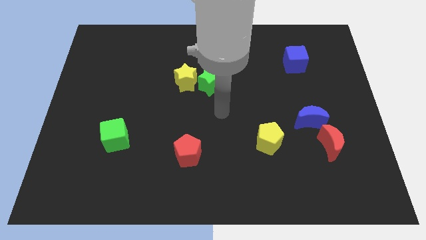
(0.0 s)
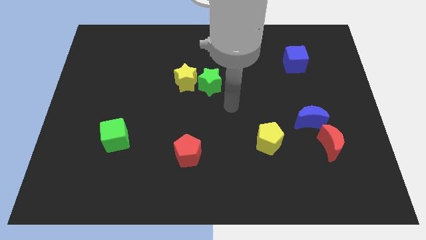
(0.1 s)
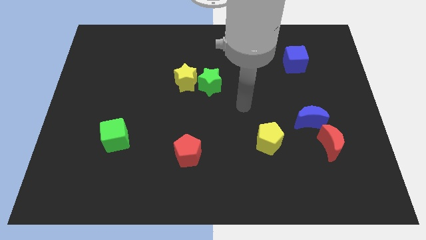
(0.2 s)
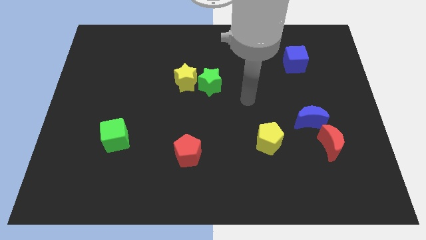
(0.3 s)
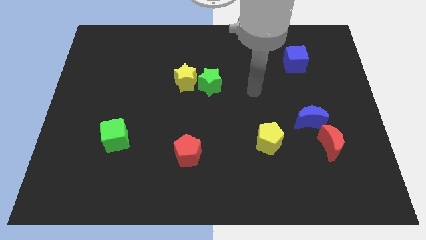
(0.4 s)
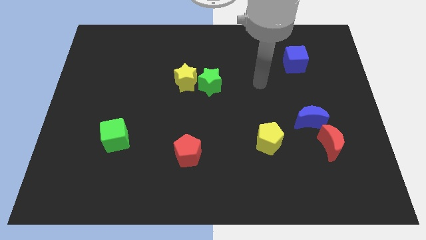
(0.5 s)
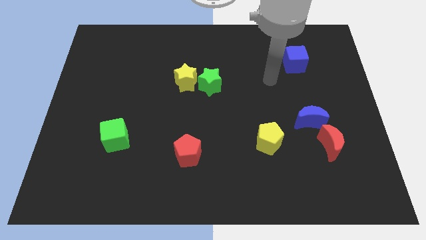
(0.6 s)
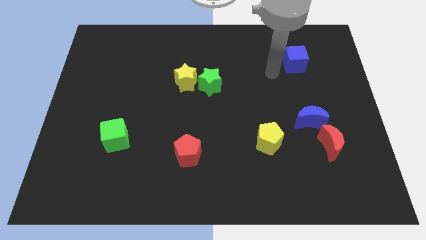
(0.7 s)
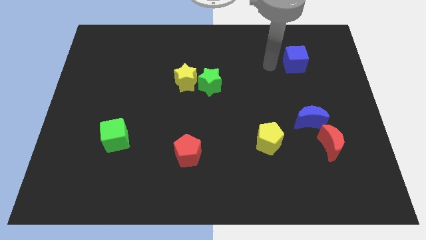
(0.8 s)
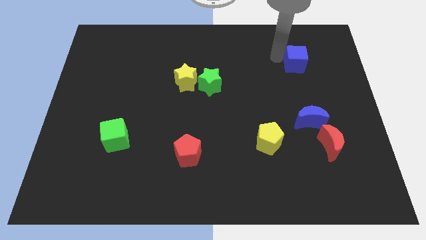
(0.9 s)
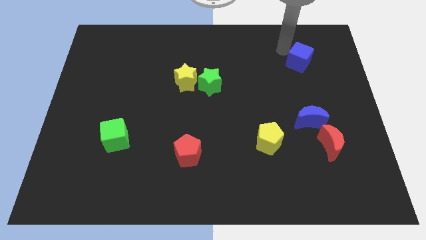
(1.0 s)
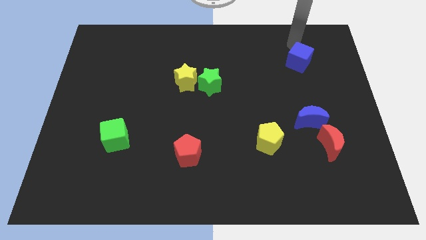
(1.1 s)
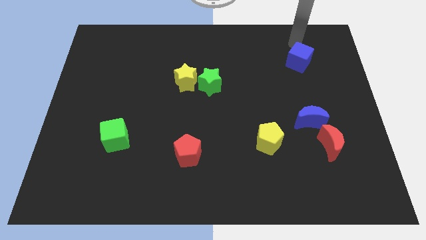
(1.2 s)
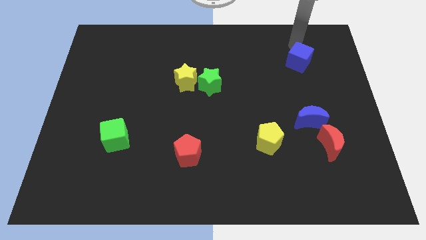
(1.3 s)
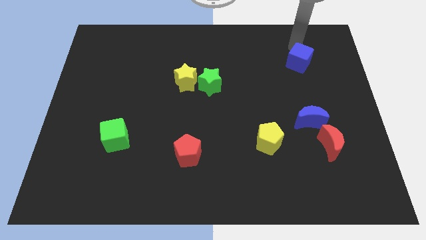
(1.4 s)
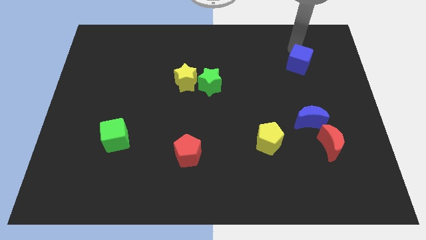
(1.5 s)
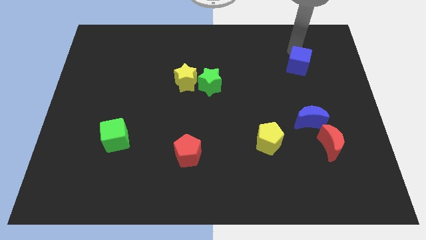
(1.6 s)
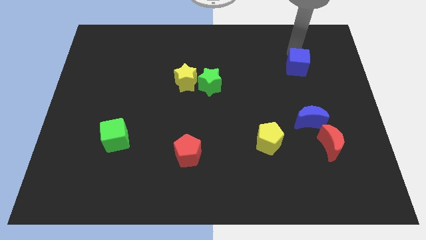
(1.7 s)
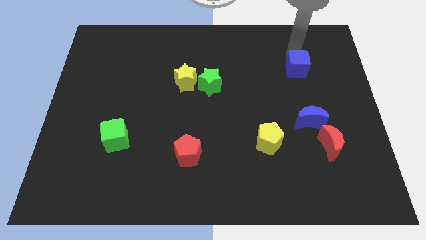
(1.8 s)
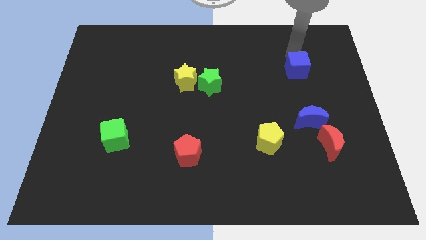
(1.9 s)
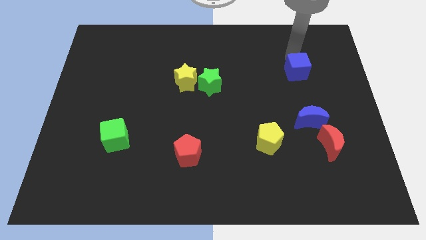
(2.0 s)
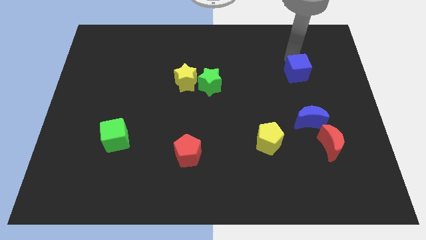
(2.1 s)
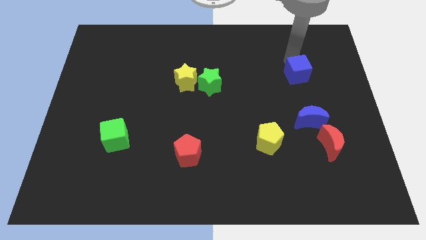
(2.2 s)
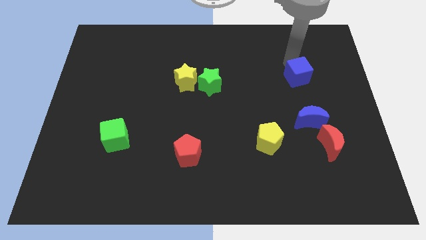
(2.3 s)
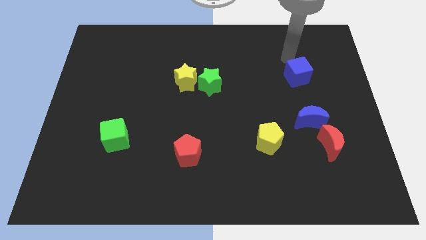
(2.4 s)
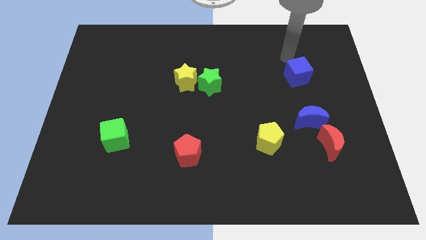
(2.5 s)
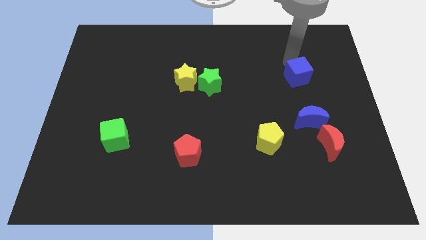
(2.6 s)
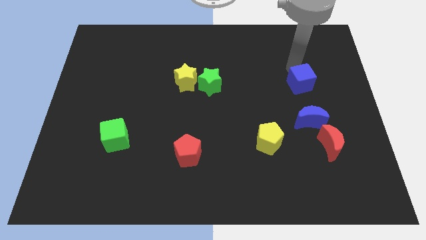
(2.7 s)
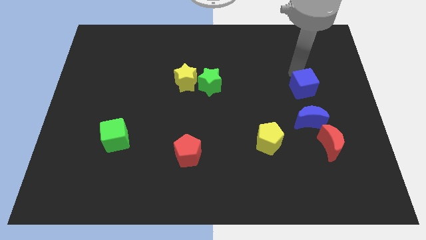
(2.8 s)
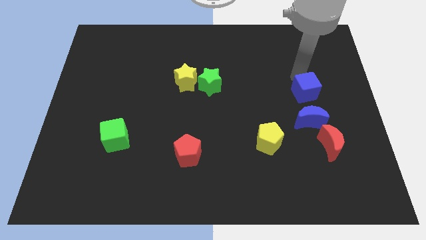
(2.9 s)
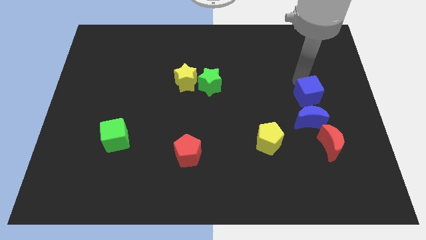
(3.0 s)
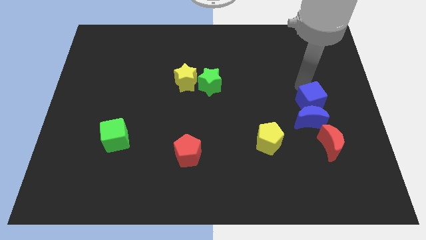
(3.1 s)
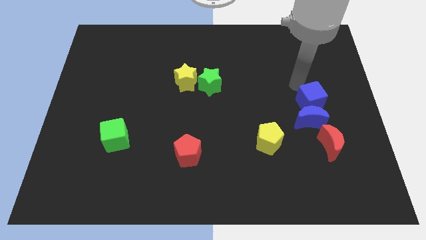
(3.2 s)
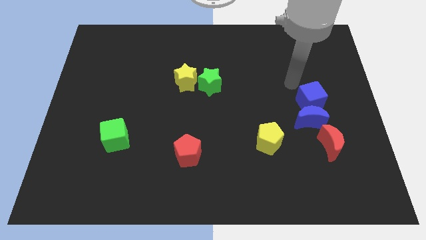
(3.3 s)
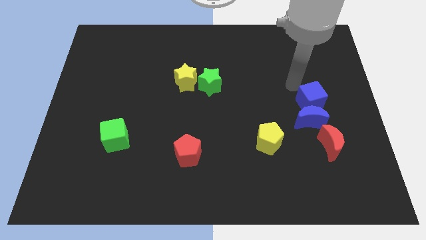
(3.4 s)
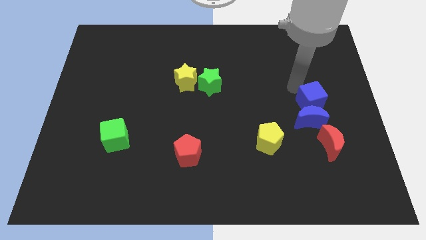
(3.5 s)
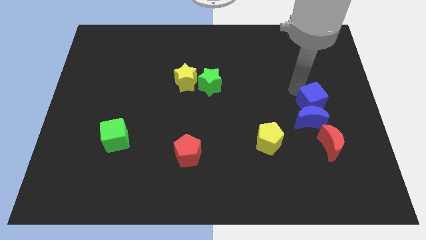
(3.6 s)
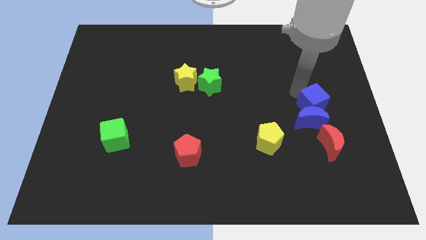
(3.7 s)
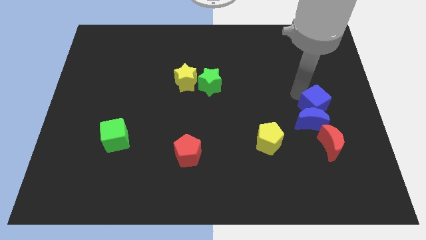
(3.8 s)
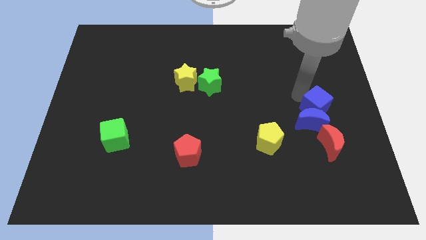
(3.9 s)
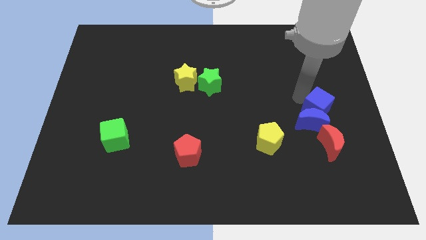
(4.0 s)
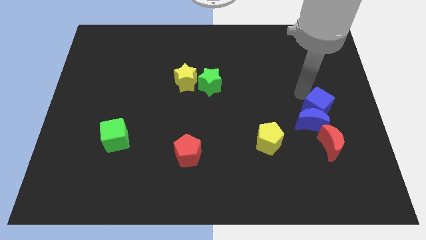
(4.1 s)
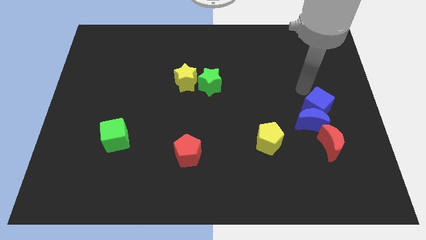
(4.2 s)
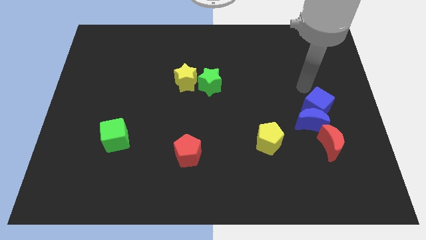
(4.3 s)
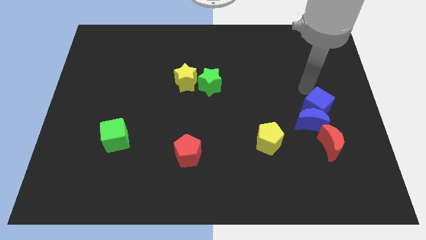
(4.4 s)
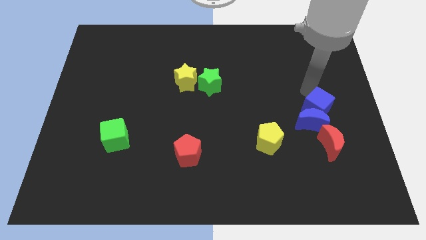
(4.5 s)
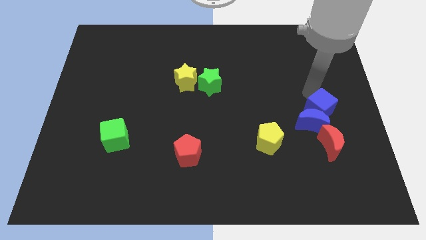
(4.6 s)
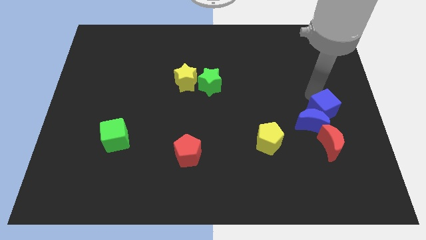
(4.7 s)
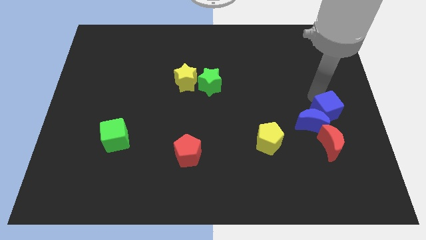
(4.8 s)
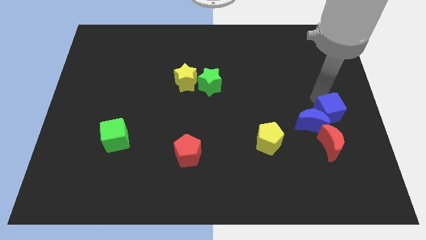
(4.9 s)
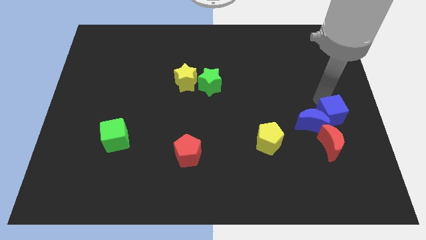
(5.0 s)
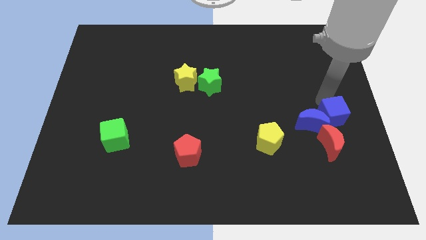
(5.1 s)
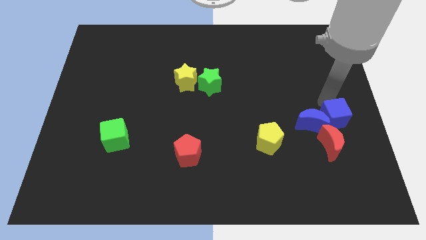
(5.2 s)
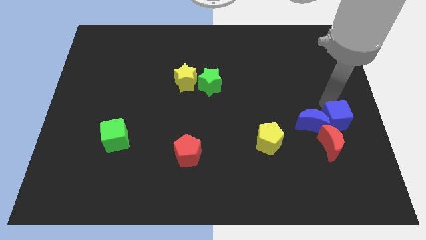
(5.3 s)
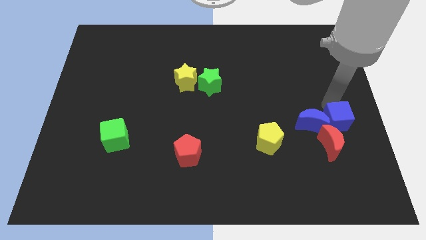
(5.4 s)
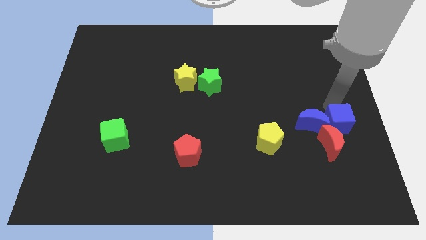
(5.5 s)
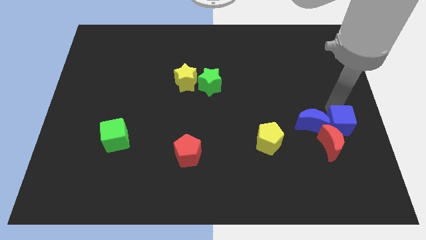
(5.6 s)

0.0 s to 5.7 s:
put the blue cube towards the red moon
